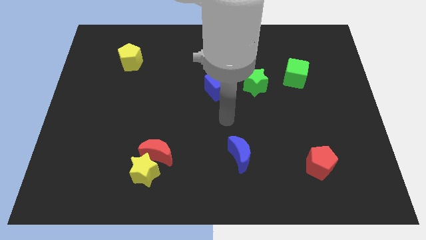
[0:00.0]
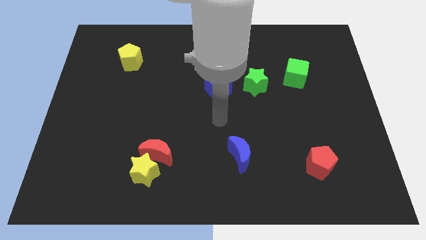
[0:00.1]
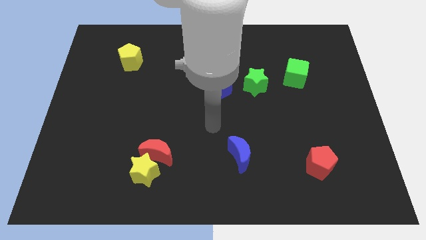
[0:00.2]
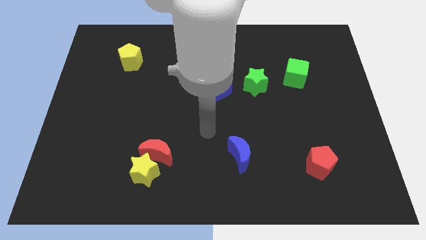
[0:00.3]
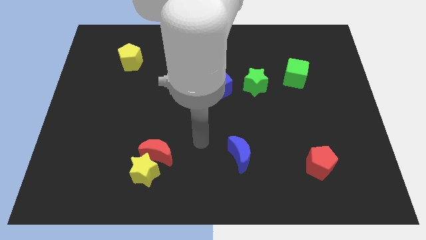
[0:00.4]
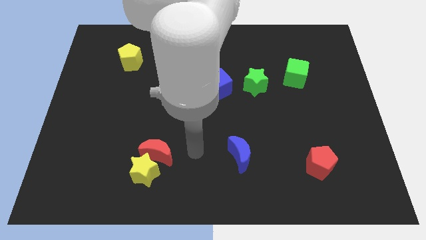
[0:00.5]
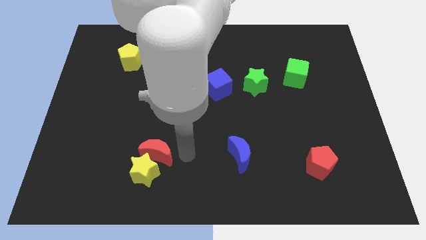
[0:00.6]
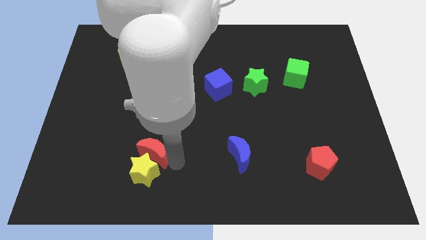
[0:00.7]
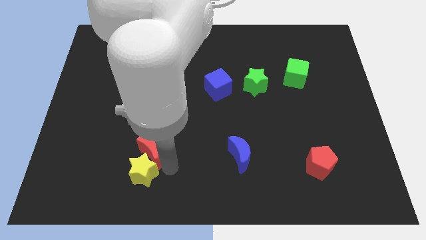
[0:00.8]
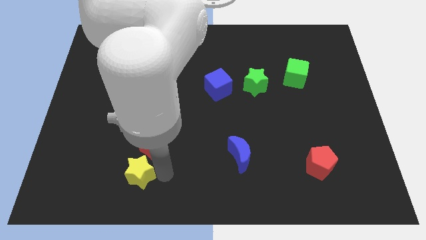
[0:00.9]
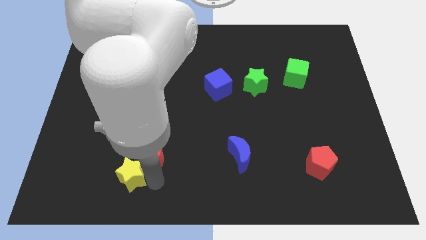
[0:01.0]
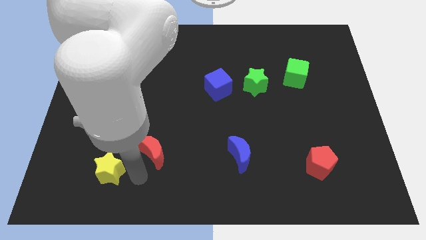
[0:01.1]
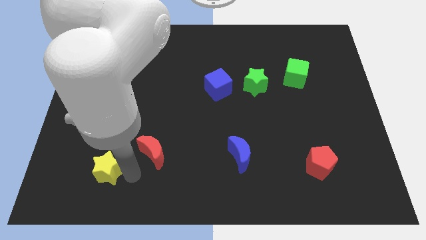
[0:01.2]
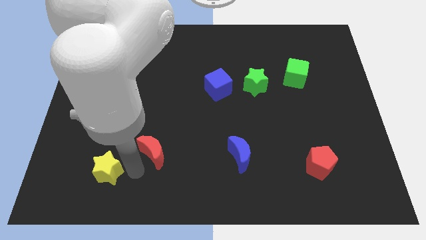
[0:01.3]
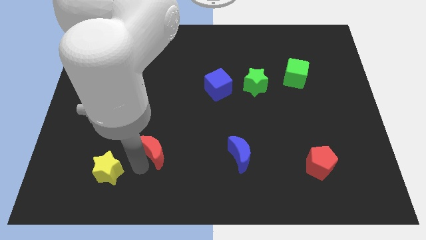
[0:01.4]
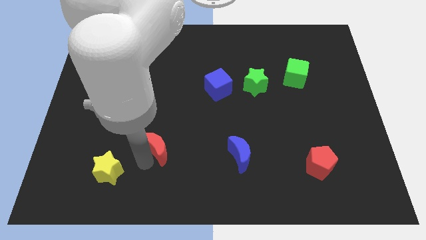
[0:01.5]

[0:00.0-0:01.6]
move the red moon away from the yellow star

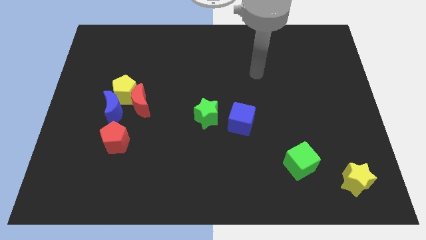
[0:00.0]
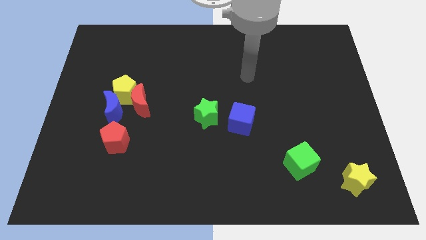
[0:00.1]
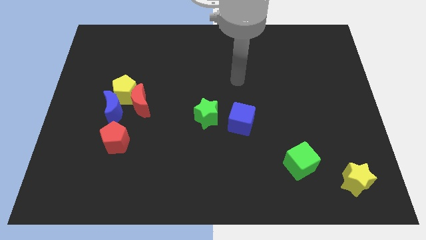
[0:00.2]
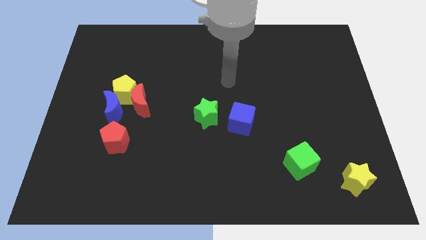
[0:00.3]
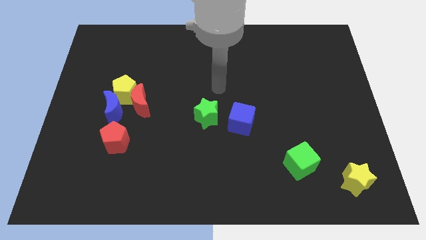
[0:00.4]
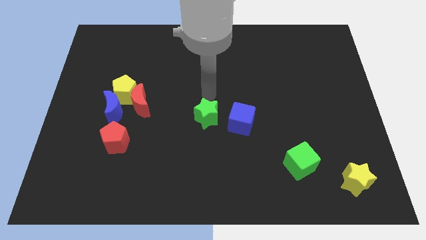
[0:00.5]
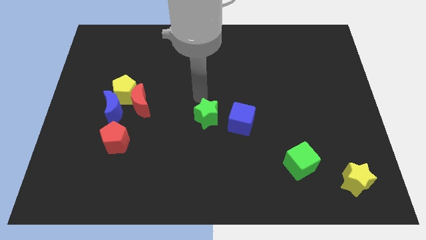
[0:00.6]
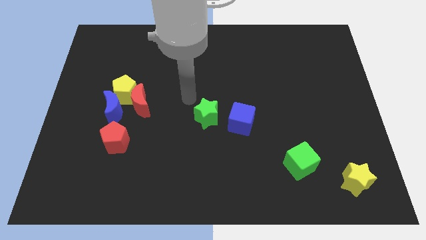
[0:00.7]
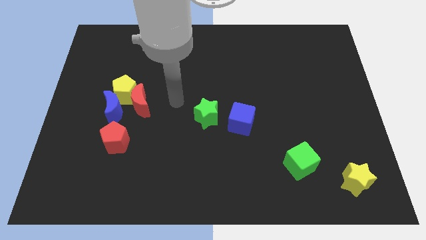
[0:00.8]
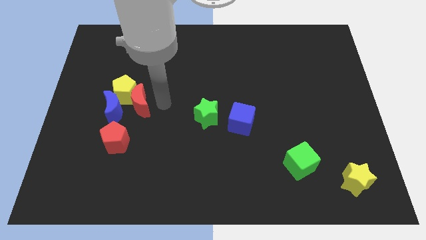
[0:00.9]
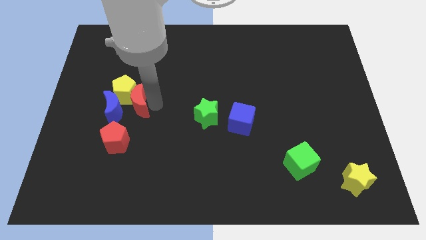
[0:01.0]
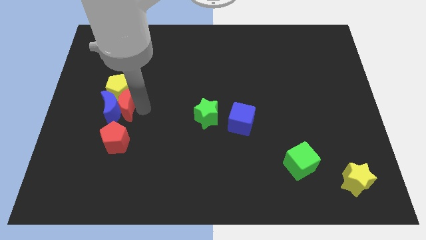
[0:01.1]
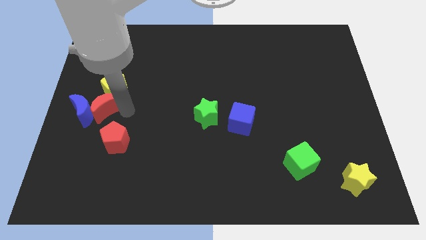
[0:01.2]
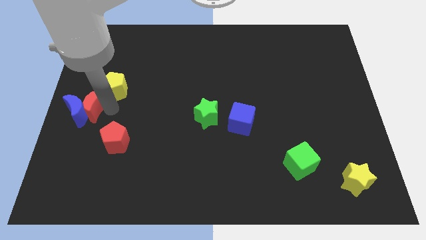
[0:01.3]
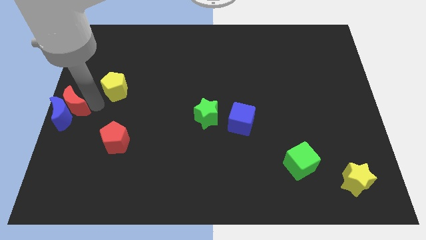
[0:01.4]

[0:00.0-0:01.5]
pull the yellow pentagon apart from the red moon and blue moon

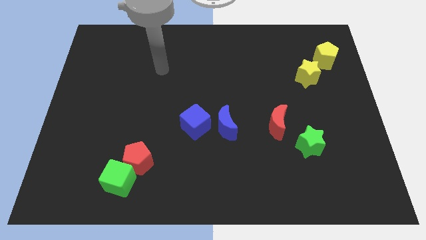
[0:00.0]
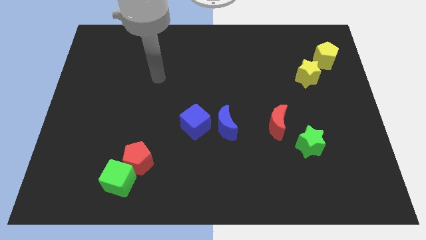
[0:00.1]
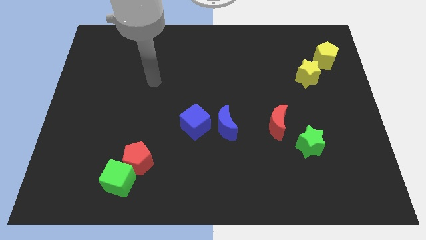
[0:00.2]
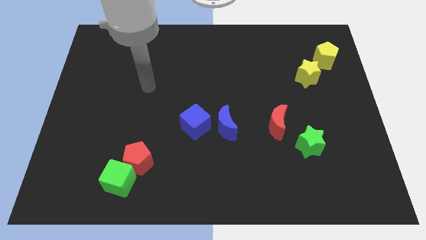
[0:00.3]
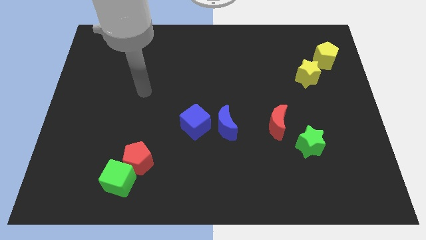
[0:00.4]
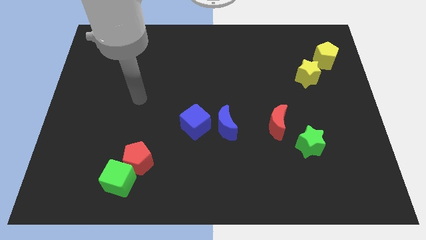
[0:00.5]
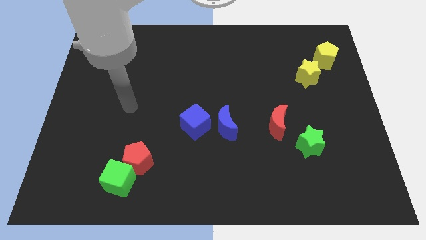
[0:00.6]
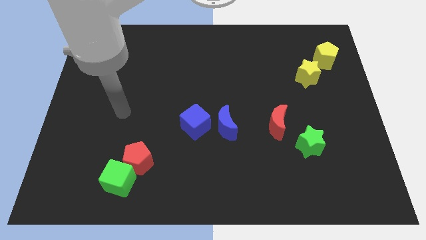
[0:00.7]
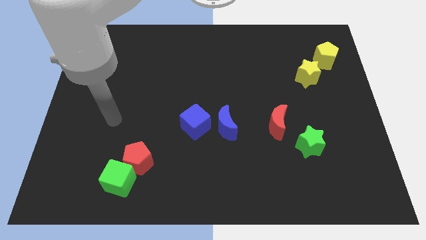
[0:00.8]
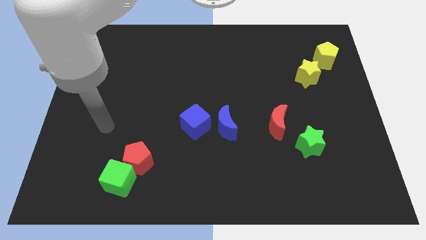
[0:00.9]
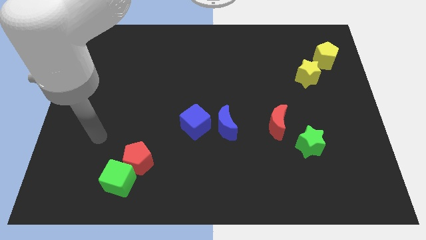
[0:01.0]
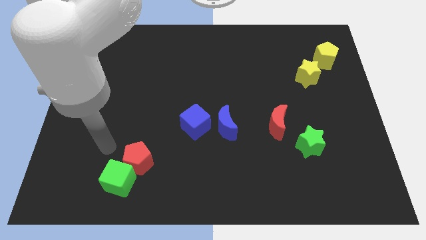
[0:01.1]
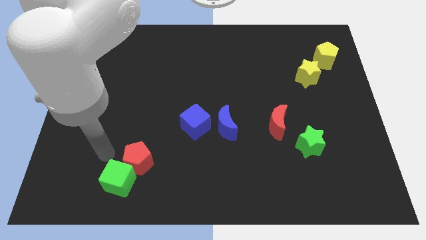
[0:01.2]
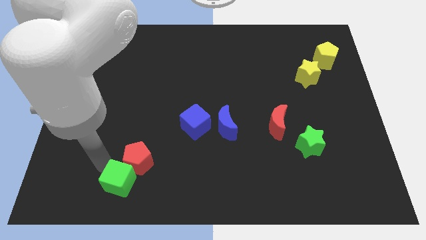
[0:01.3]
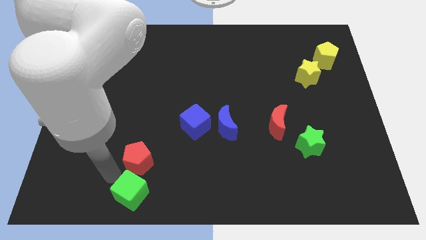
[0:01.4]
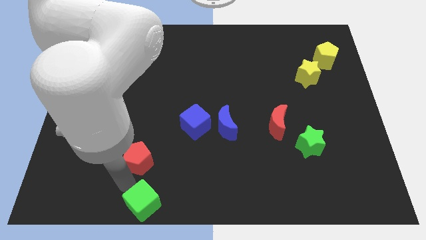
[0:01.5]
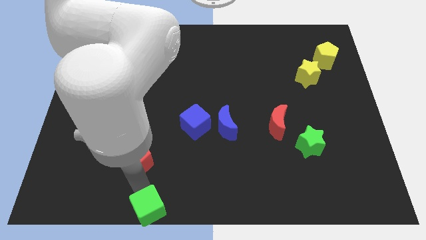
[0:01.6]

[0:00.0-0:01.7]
separate the red pentagon from the green cube

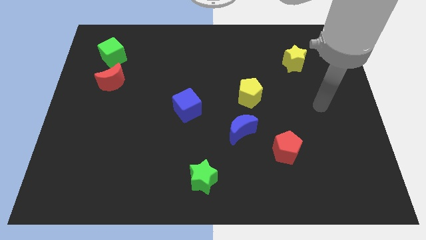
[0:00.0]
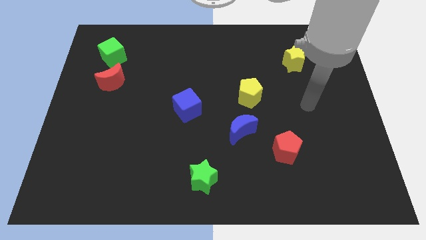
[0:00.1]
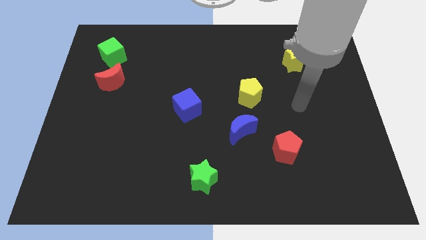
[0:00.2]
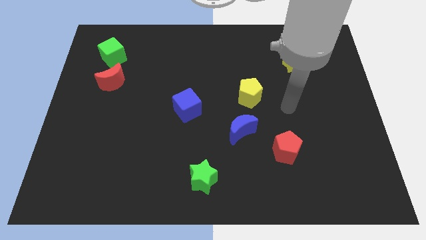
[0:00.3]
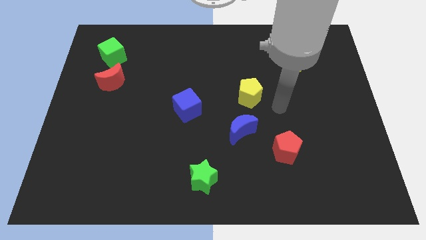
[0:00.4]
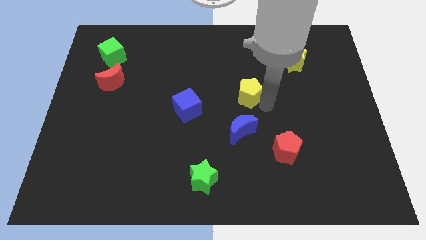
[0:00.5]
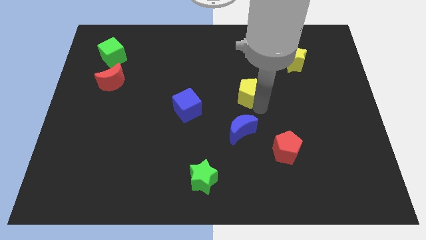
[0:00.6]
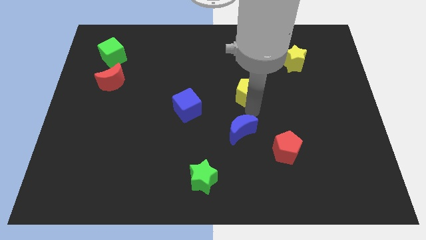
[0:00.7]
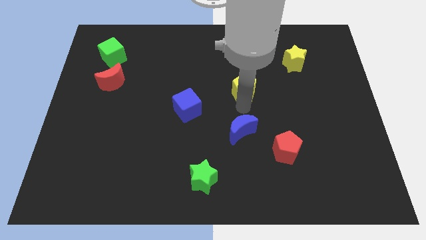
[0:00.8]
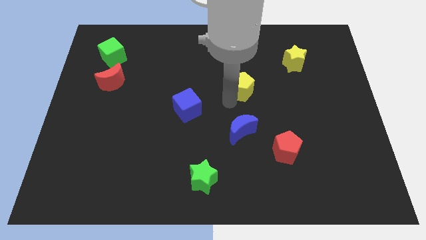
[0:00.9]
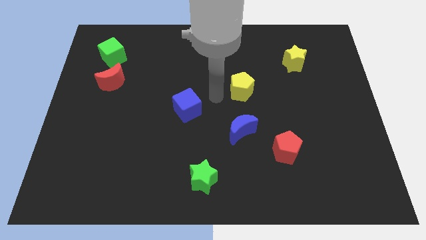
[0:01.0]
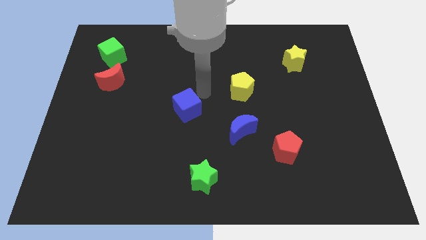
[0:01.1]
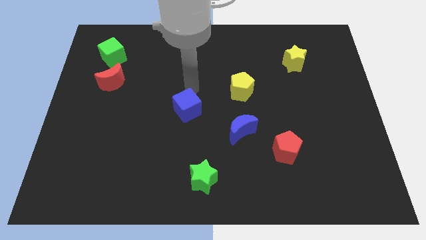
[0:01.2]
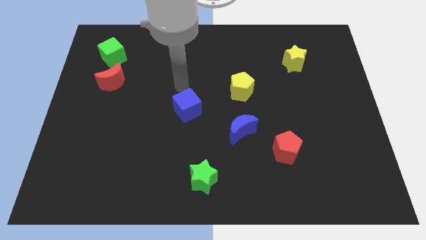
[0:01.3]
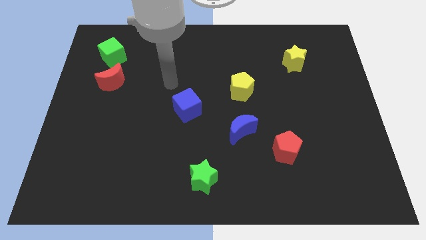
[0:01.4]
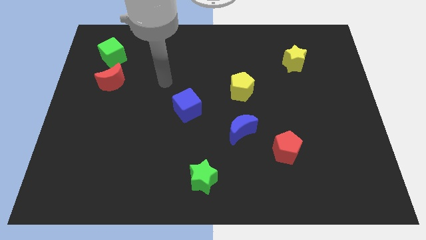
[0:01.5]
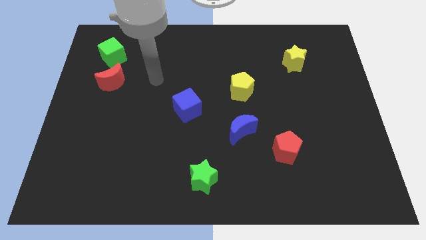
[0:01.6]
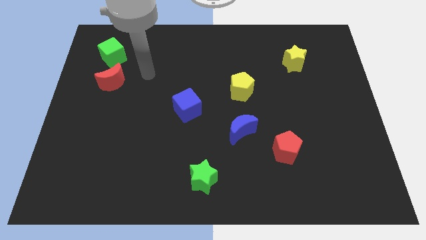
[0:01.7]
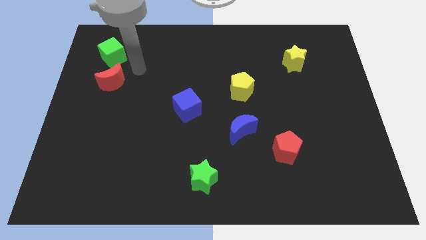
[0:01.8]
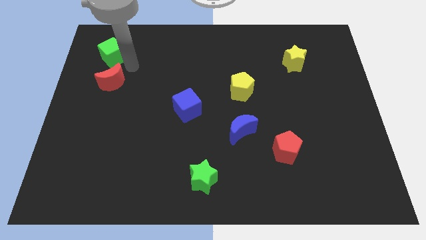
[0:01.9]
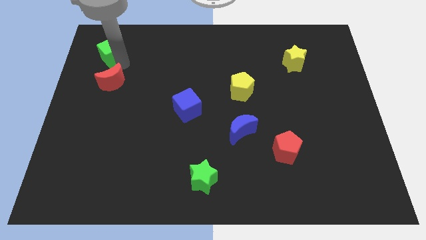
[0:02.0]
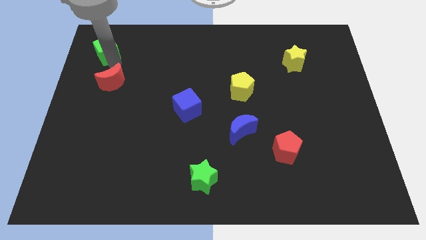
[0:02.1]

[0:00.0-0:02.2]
move the red moon away from the green cube

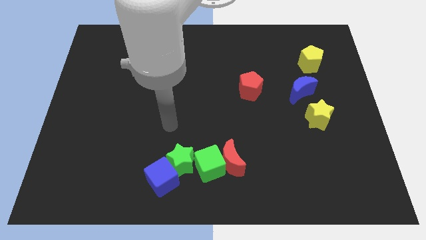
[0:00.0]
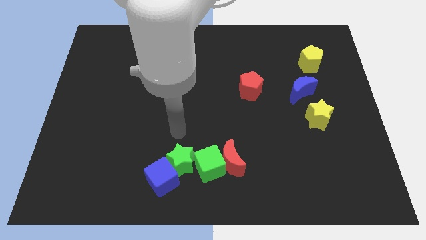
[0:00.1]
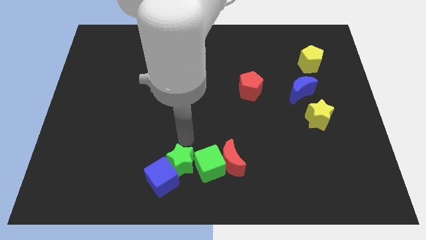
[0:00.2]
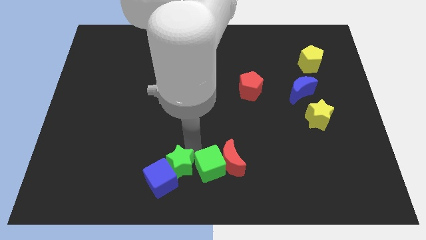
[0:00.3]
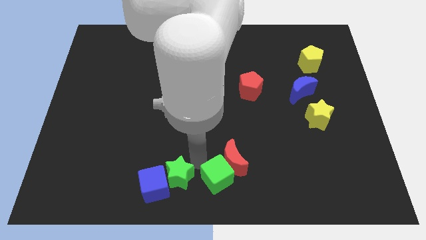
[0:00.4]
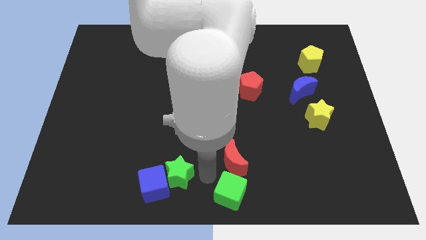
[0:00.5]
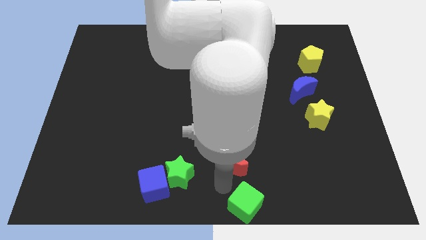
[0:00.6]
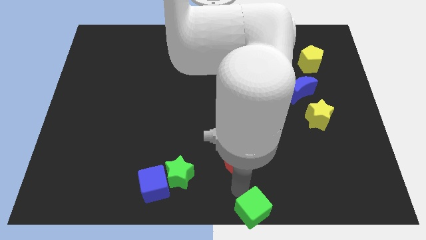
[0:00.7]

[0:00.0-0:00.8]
pull the red moon apart from the green cube

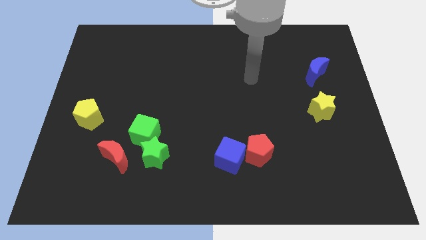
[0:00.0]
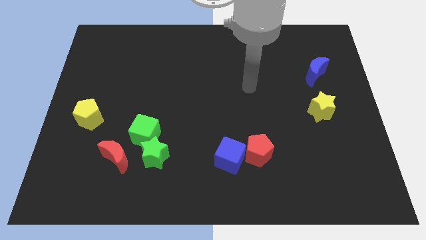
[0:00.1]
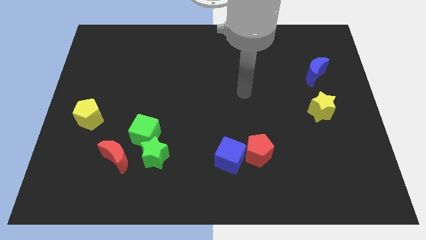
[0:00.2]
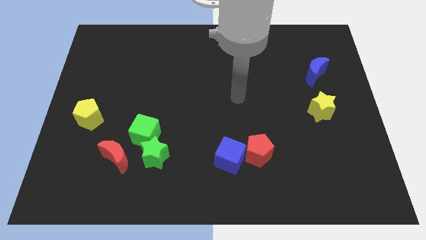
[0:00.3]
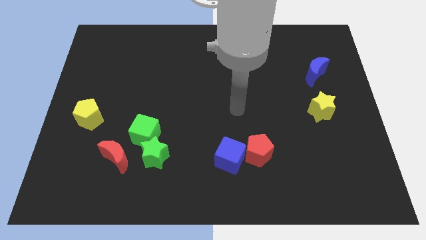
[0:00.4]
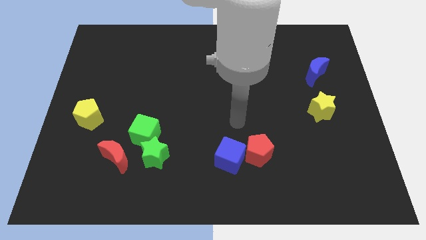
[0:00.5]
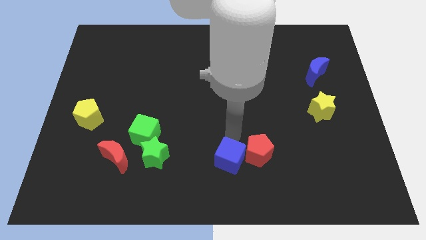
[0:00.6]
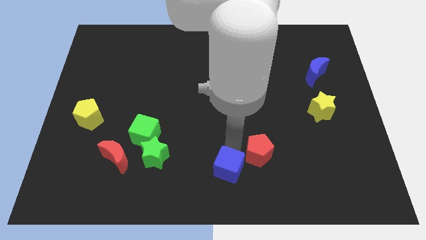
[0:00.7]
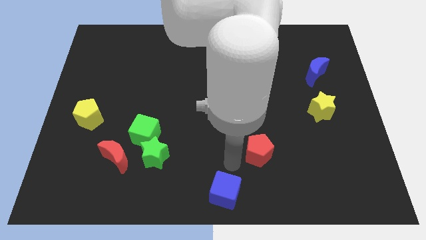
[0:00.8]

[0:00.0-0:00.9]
move the red pentagon away from the blue cube

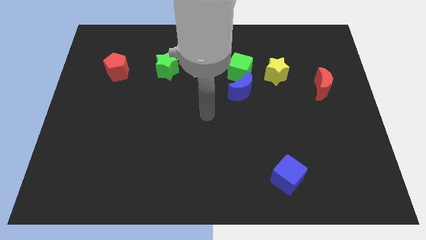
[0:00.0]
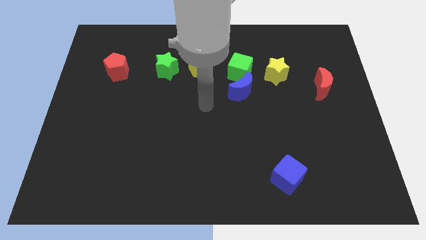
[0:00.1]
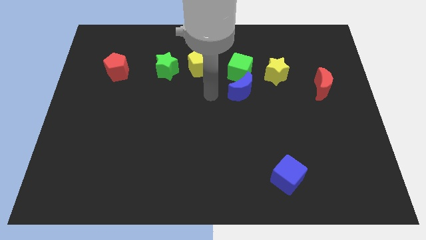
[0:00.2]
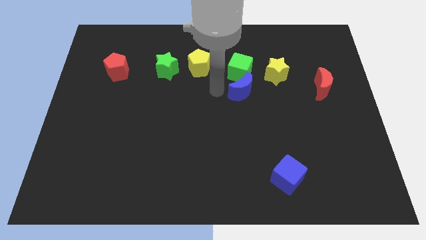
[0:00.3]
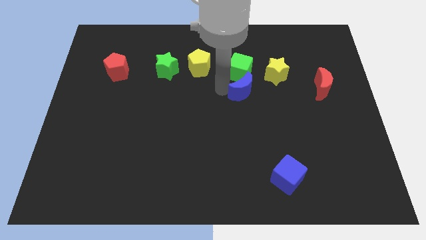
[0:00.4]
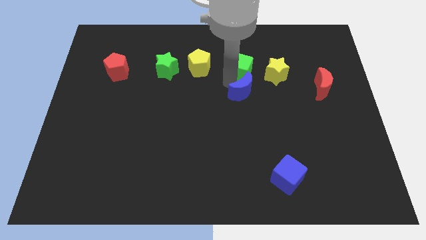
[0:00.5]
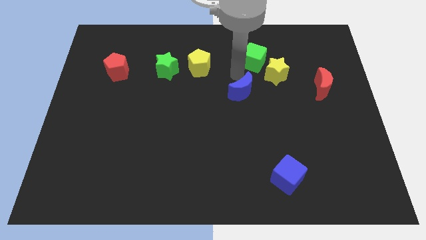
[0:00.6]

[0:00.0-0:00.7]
pull the blue moon apart from the green cube

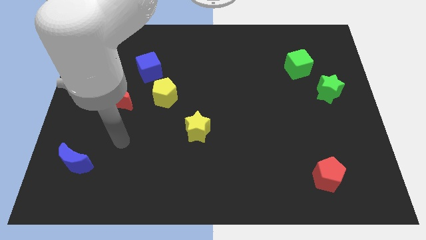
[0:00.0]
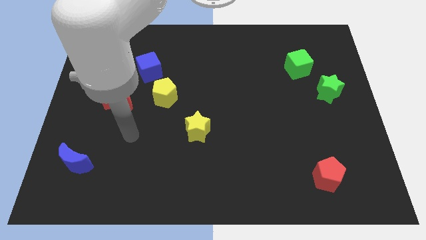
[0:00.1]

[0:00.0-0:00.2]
pull the blue cube apart from the yellow pentagon
